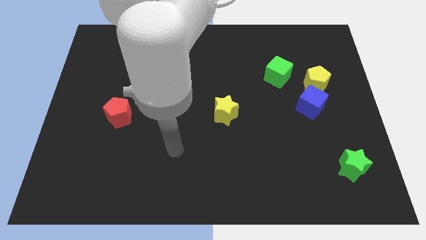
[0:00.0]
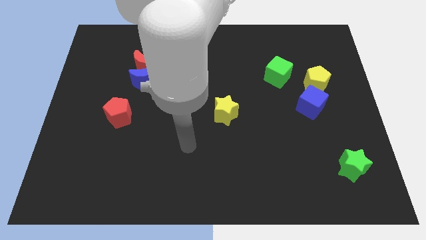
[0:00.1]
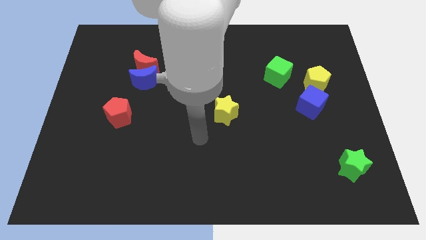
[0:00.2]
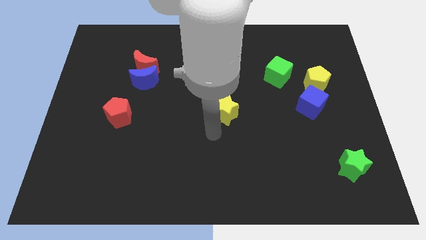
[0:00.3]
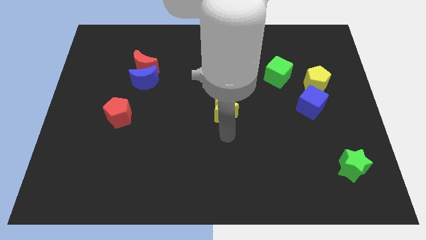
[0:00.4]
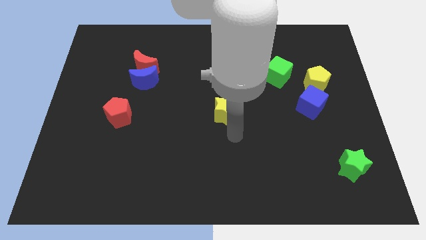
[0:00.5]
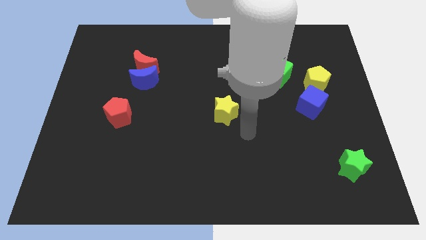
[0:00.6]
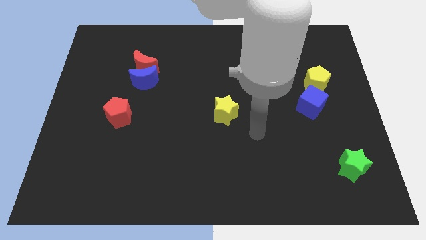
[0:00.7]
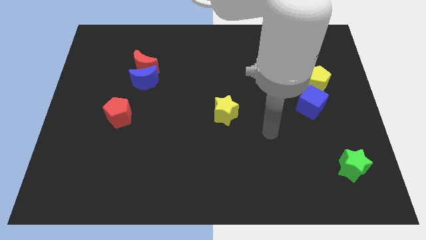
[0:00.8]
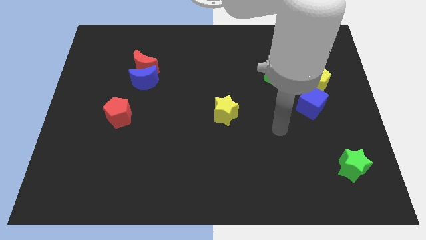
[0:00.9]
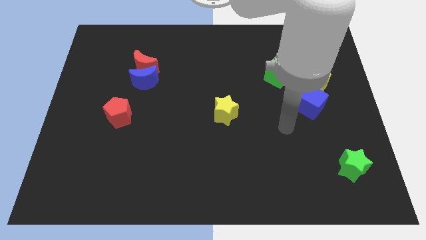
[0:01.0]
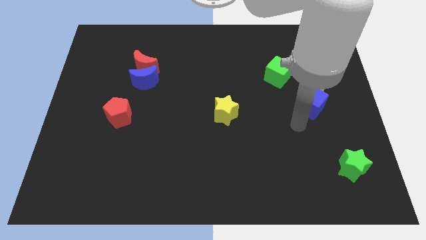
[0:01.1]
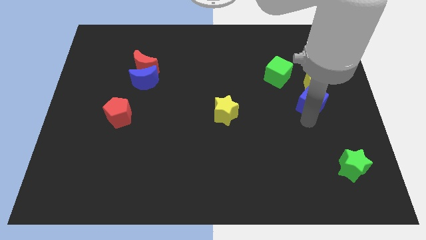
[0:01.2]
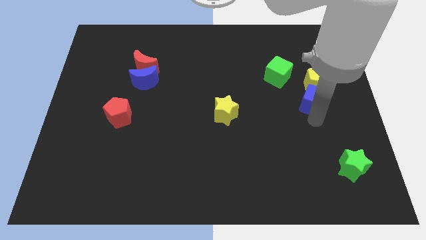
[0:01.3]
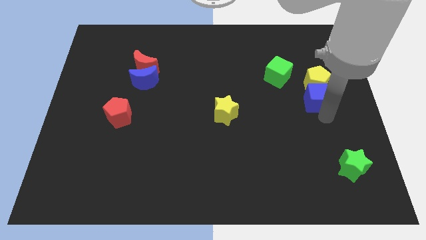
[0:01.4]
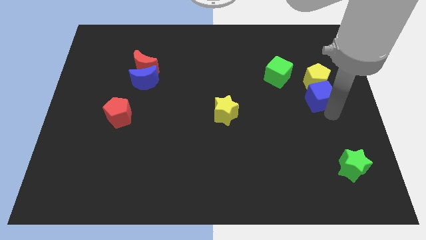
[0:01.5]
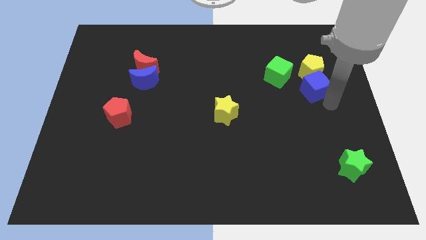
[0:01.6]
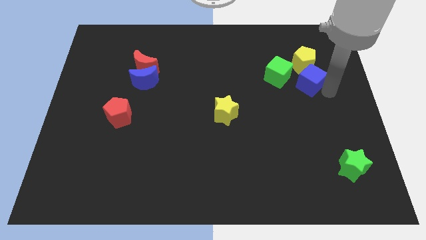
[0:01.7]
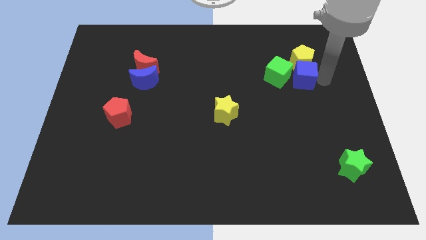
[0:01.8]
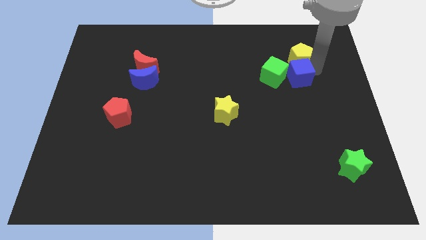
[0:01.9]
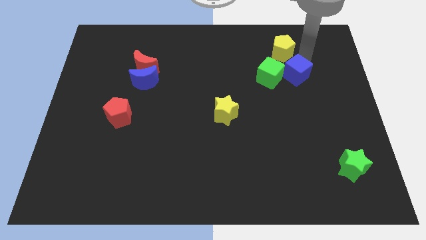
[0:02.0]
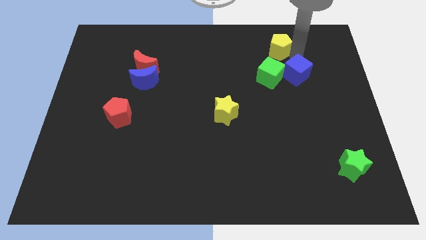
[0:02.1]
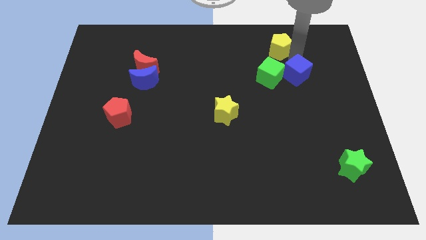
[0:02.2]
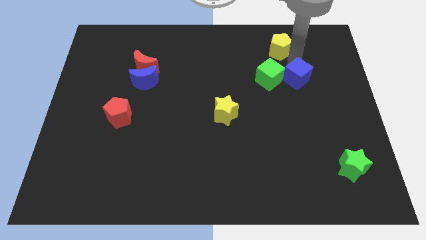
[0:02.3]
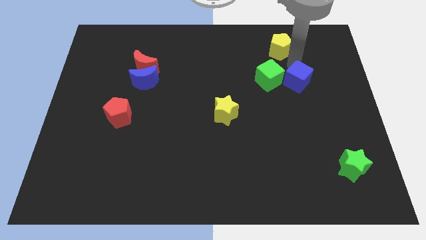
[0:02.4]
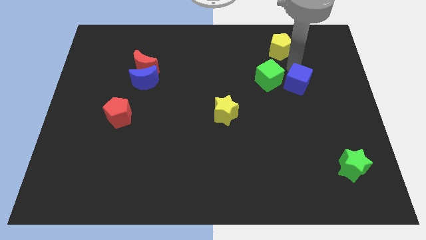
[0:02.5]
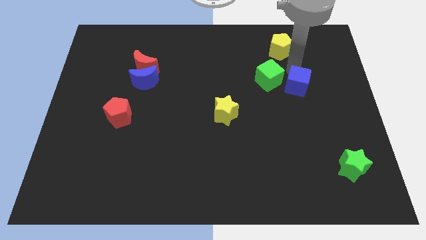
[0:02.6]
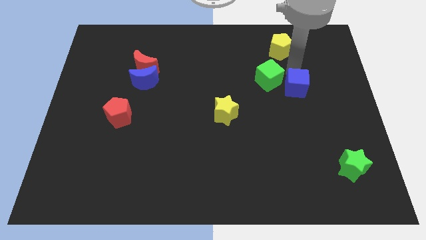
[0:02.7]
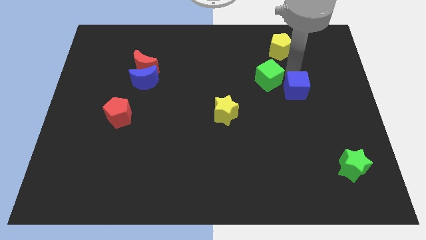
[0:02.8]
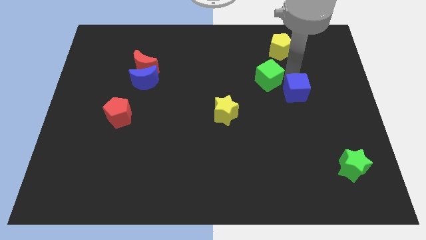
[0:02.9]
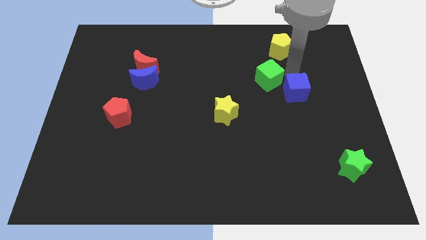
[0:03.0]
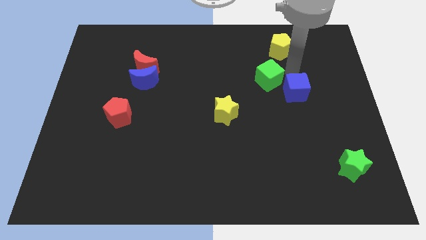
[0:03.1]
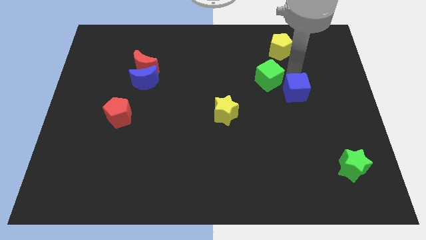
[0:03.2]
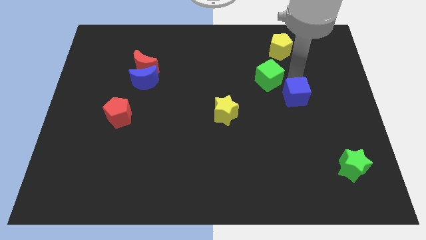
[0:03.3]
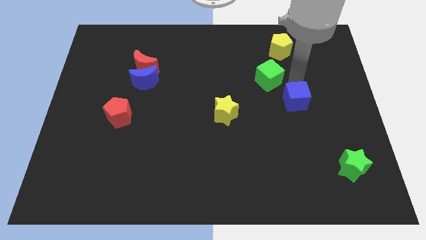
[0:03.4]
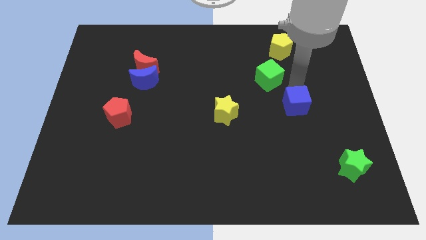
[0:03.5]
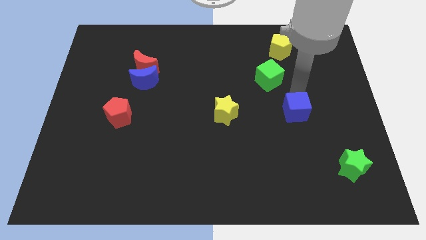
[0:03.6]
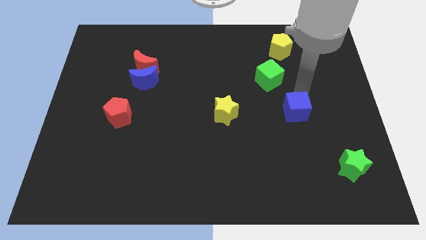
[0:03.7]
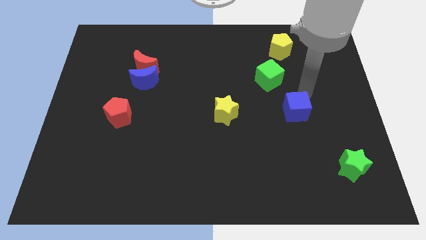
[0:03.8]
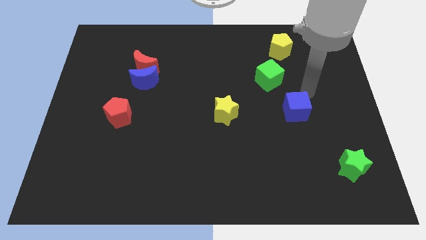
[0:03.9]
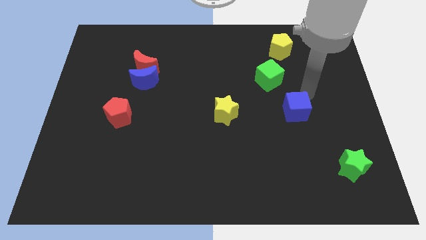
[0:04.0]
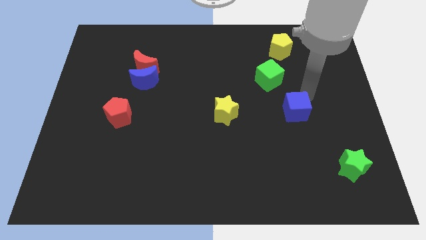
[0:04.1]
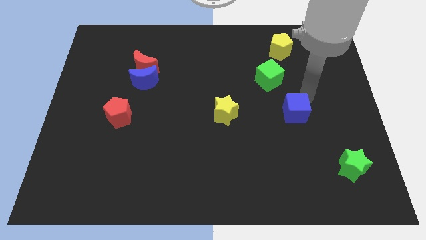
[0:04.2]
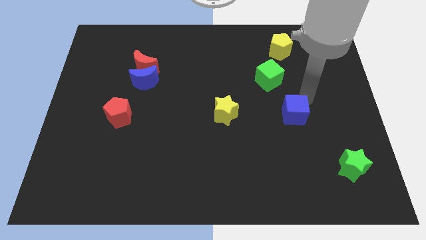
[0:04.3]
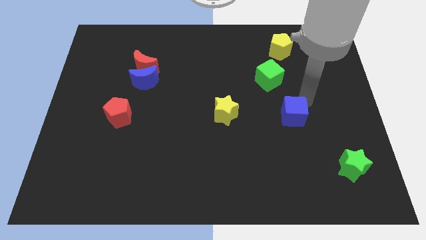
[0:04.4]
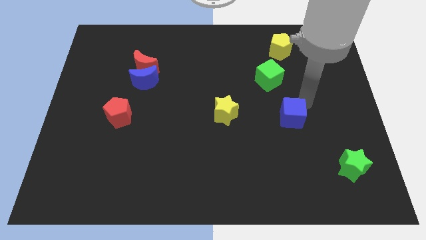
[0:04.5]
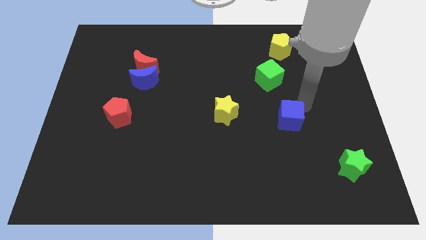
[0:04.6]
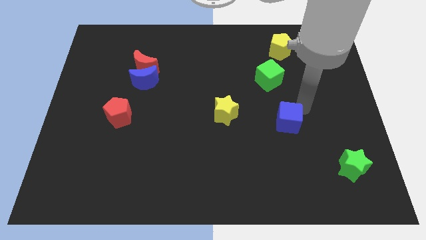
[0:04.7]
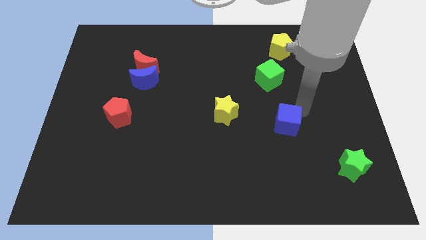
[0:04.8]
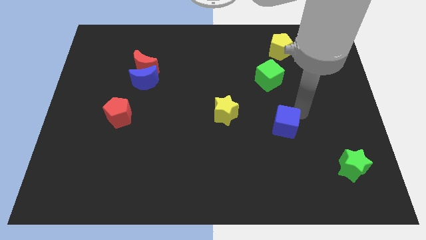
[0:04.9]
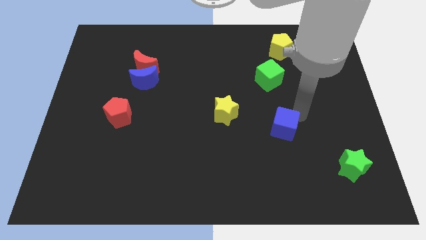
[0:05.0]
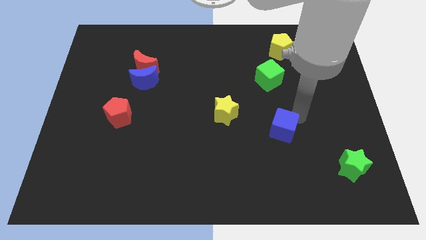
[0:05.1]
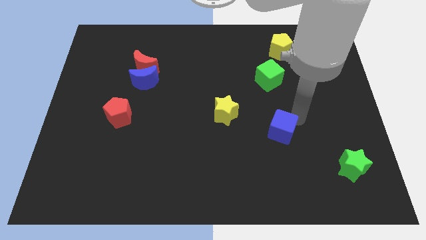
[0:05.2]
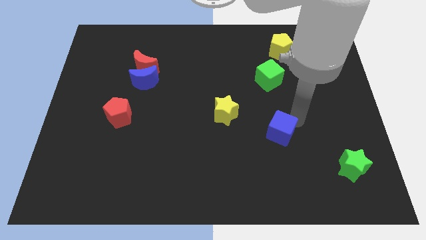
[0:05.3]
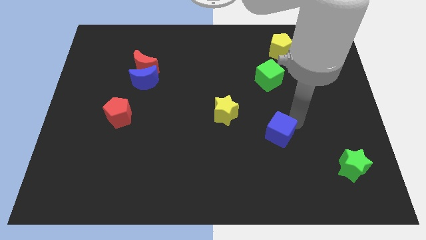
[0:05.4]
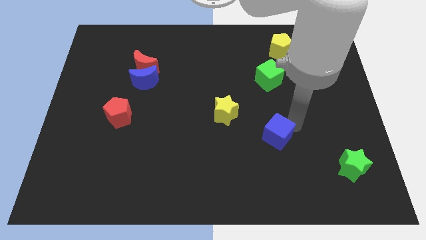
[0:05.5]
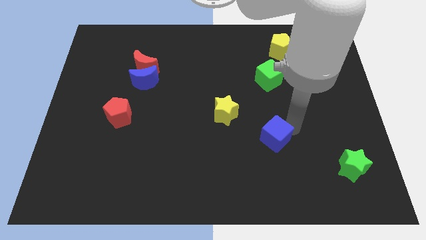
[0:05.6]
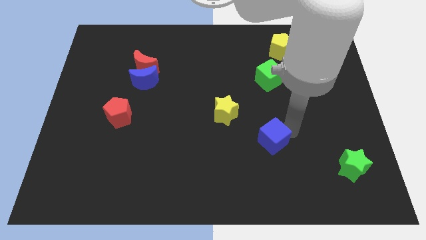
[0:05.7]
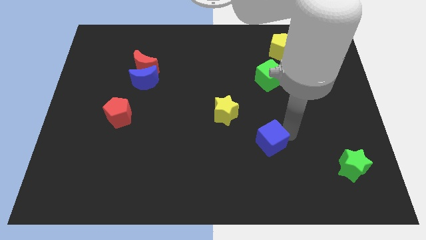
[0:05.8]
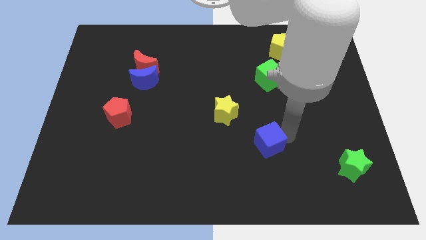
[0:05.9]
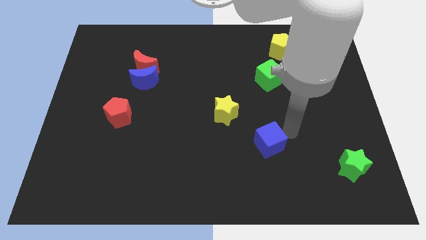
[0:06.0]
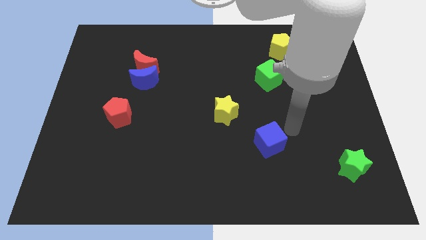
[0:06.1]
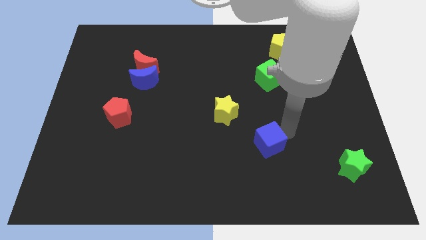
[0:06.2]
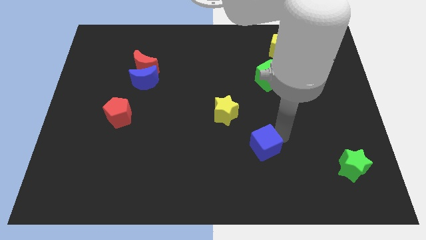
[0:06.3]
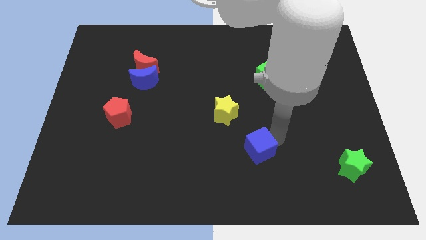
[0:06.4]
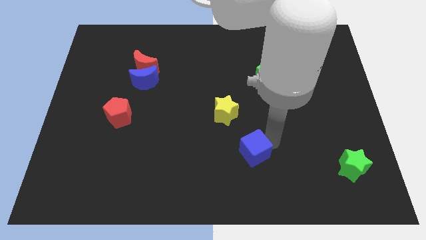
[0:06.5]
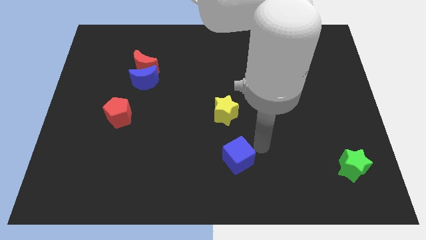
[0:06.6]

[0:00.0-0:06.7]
move the blue cube to the bottom
